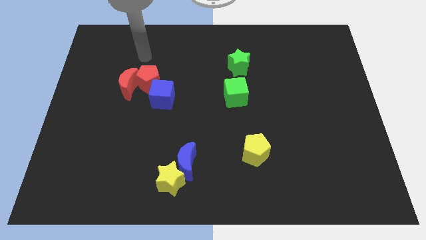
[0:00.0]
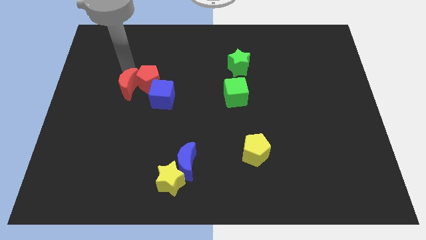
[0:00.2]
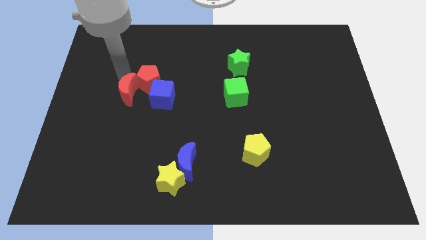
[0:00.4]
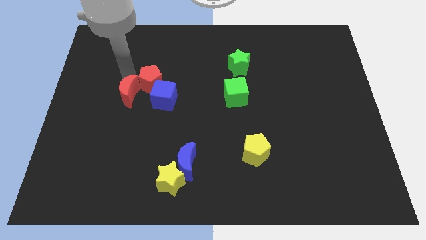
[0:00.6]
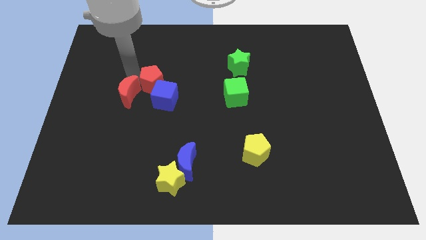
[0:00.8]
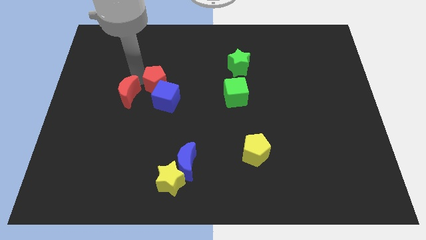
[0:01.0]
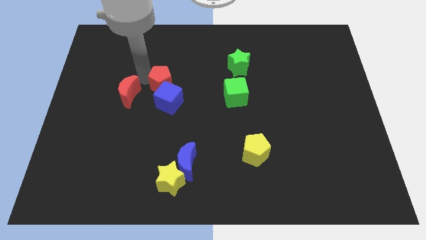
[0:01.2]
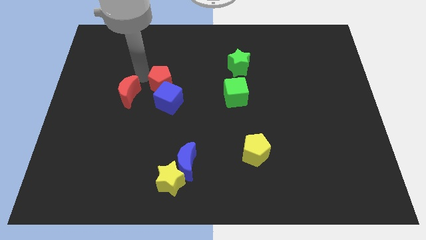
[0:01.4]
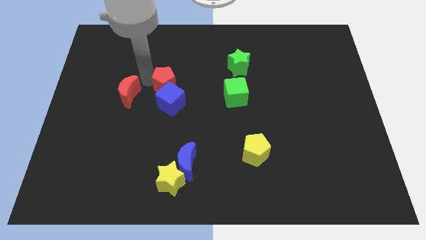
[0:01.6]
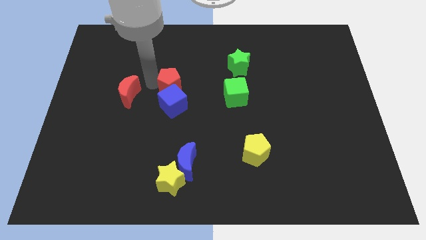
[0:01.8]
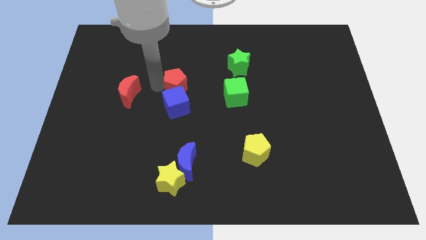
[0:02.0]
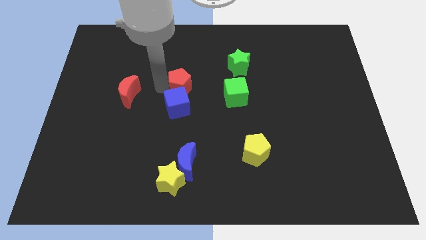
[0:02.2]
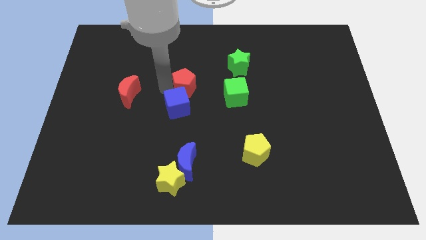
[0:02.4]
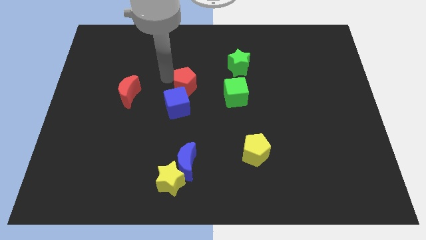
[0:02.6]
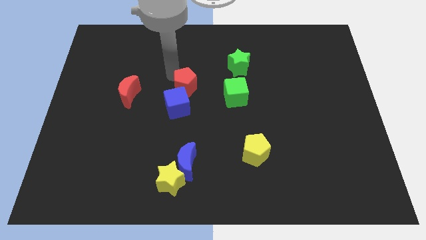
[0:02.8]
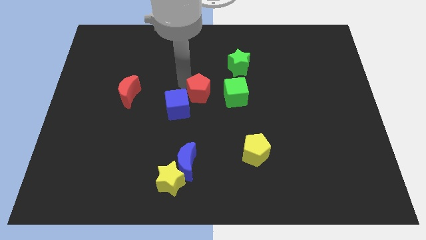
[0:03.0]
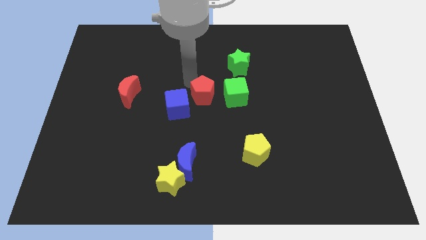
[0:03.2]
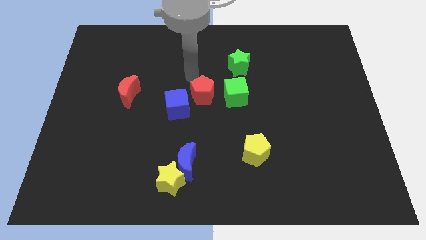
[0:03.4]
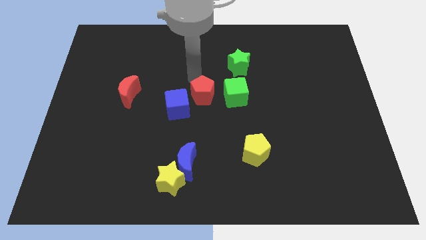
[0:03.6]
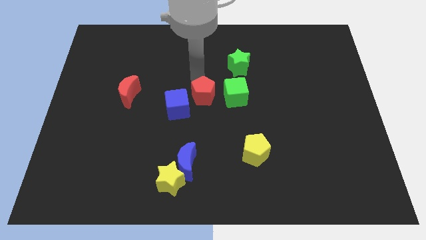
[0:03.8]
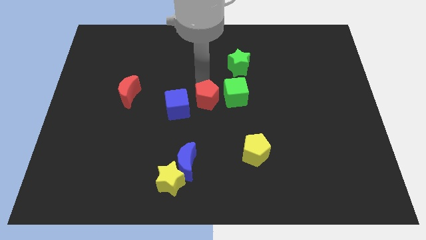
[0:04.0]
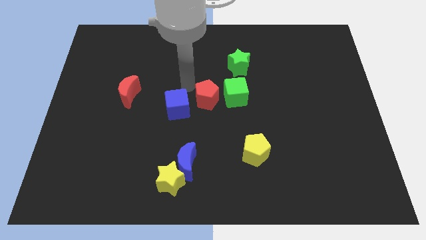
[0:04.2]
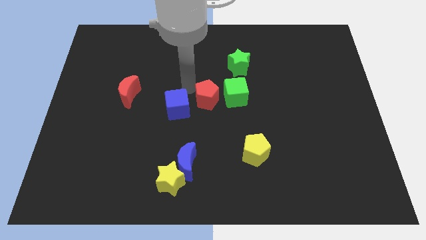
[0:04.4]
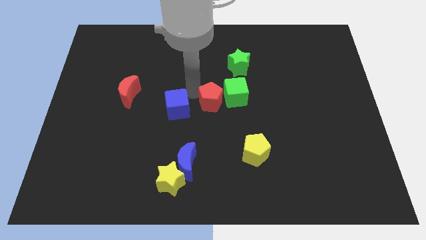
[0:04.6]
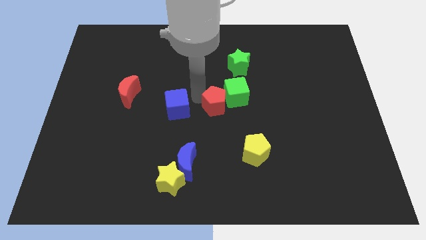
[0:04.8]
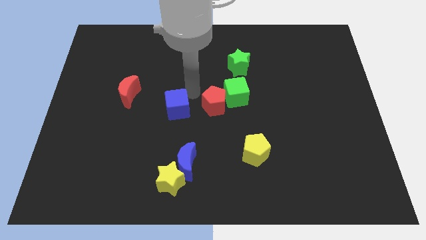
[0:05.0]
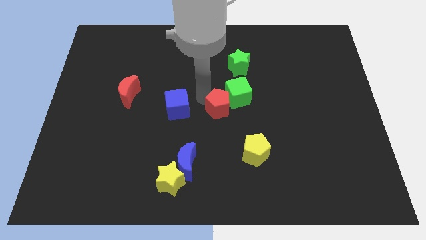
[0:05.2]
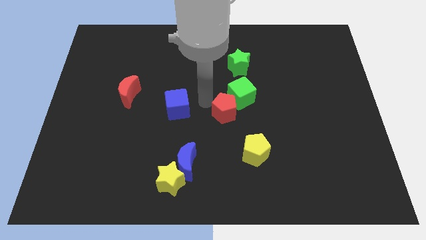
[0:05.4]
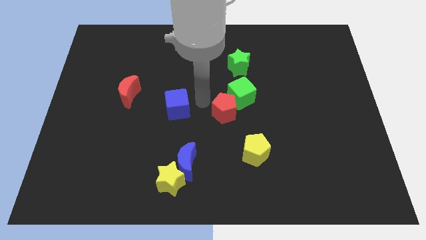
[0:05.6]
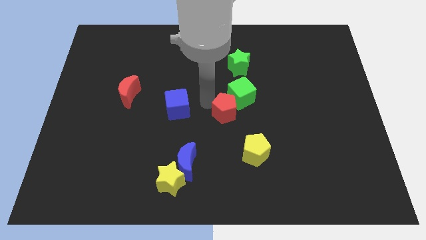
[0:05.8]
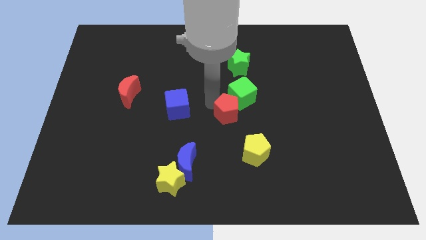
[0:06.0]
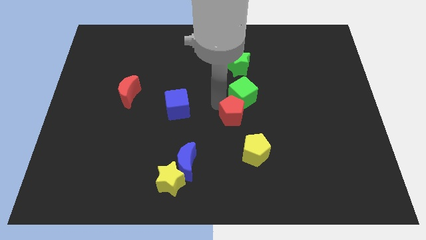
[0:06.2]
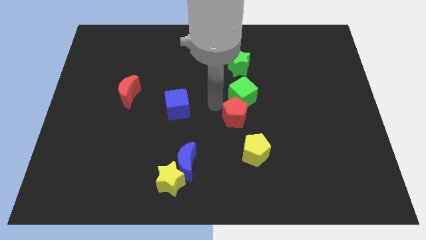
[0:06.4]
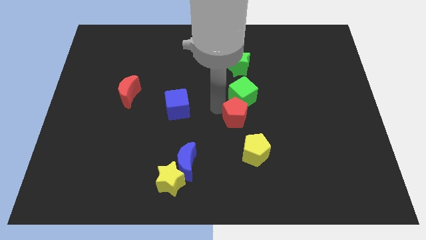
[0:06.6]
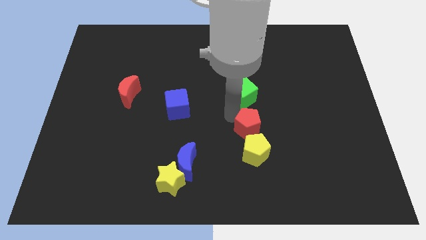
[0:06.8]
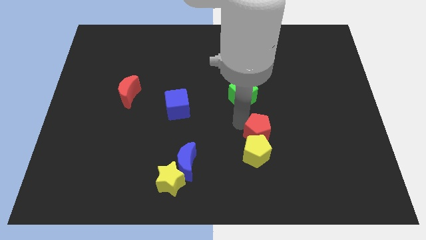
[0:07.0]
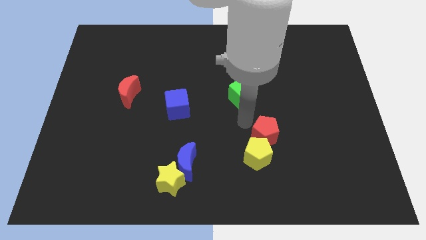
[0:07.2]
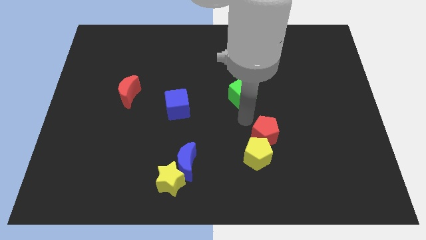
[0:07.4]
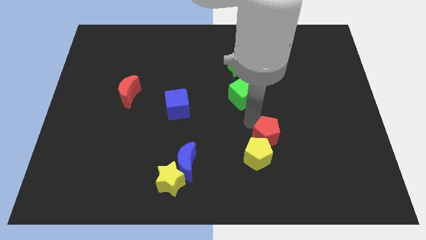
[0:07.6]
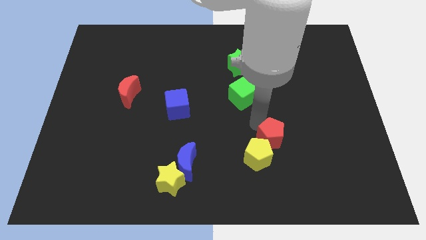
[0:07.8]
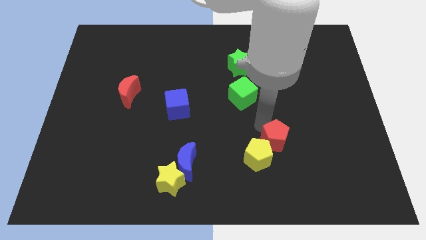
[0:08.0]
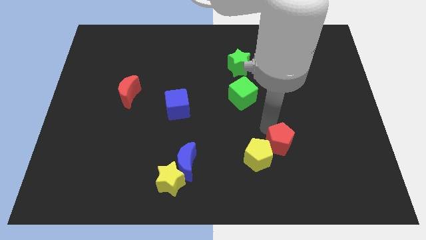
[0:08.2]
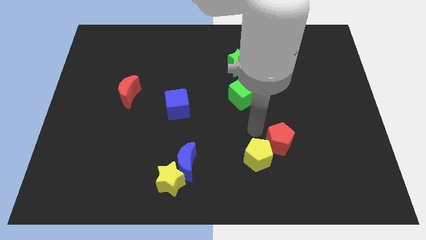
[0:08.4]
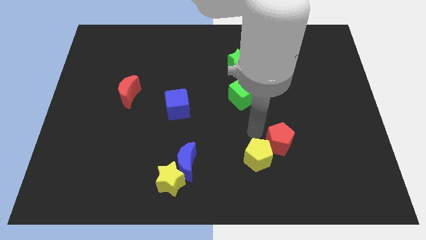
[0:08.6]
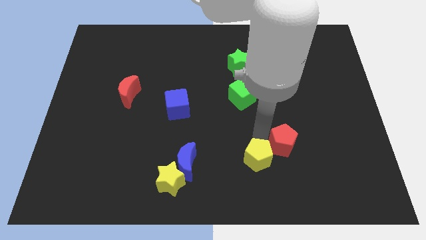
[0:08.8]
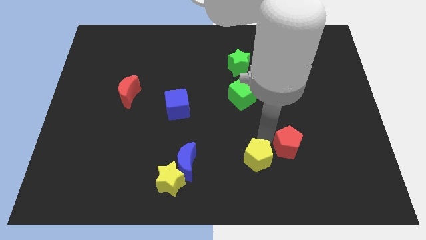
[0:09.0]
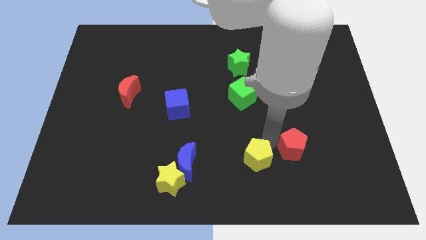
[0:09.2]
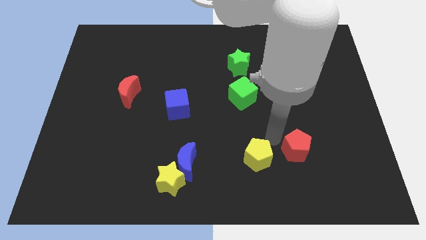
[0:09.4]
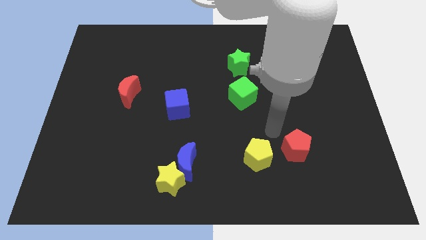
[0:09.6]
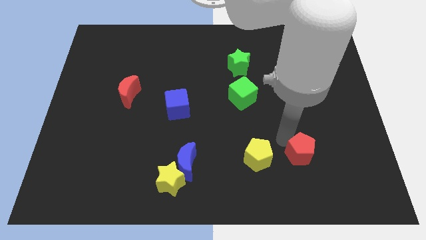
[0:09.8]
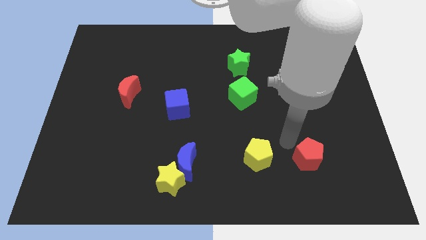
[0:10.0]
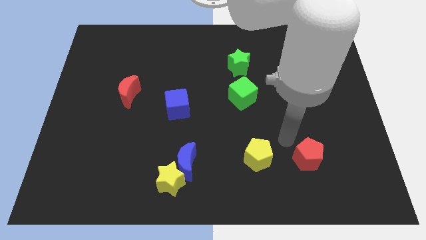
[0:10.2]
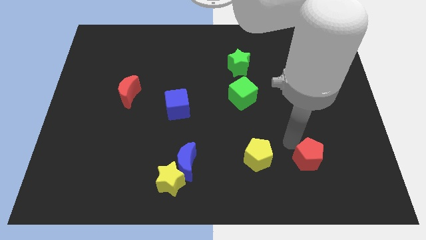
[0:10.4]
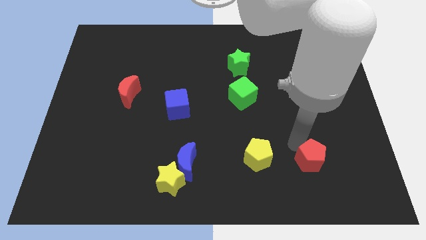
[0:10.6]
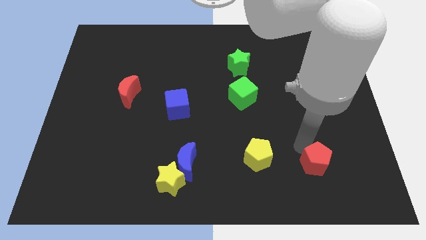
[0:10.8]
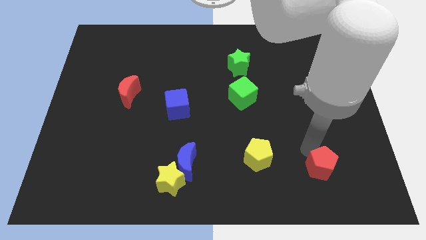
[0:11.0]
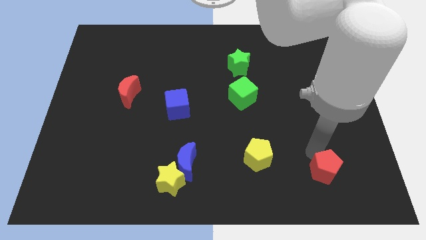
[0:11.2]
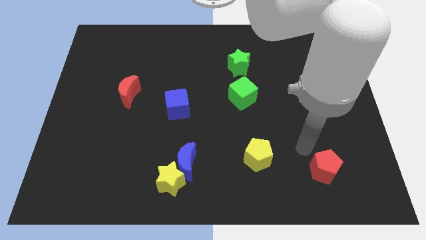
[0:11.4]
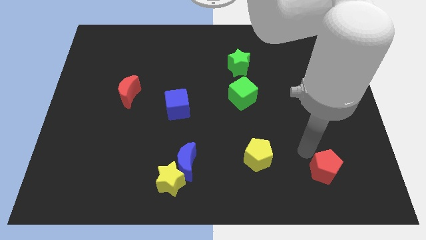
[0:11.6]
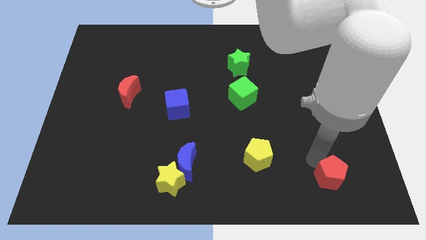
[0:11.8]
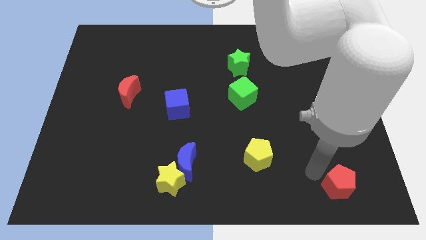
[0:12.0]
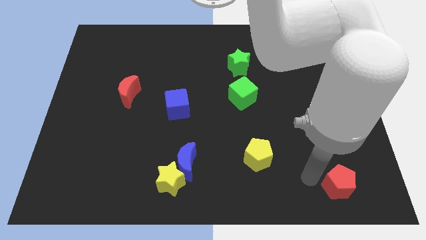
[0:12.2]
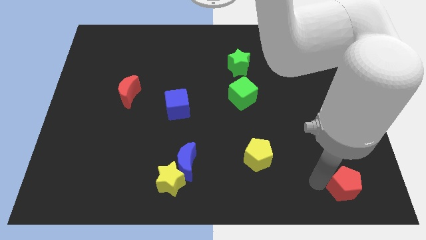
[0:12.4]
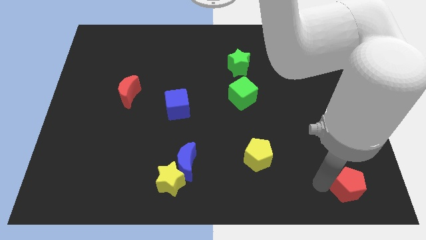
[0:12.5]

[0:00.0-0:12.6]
push the red pentagon to the bottom right corner
